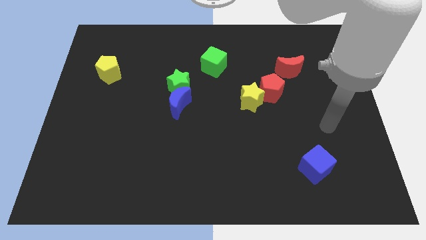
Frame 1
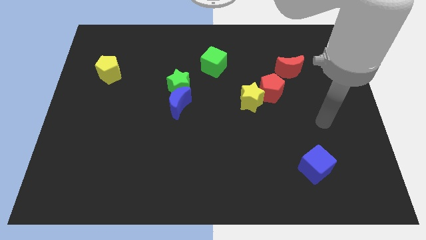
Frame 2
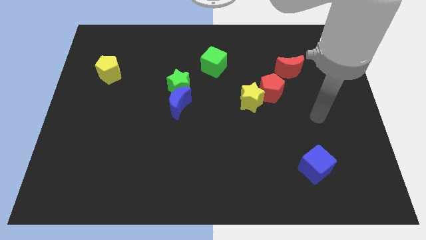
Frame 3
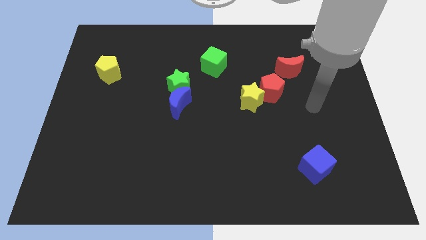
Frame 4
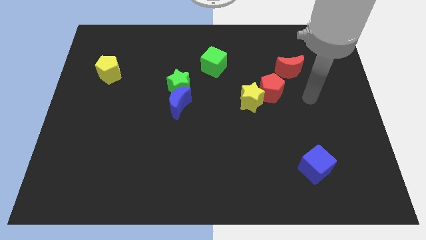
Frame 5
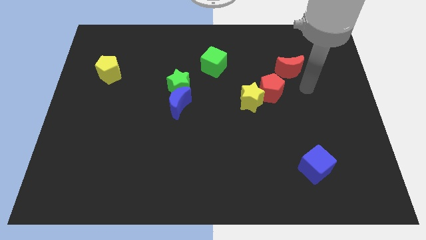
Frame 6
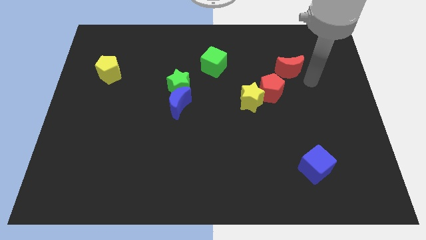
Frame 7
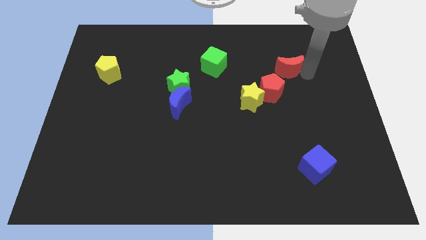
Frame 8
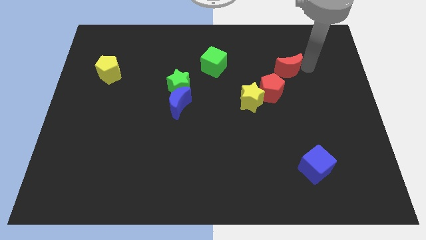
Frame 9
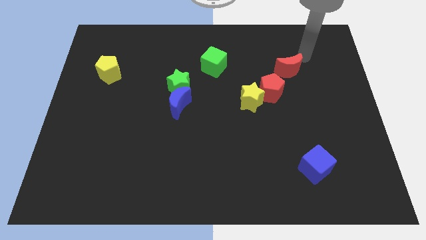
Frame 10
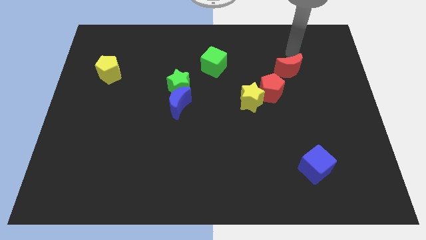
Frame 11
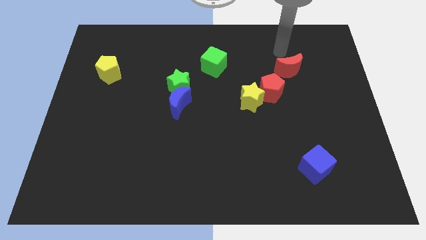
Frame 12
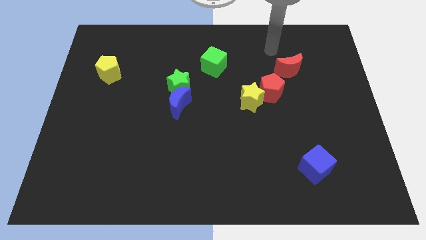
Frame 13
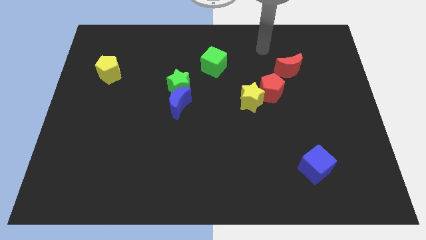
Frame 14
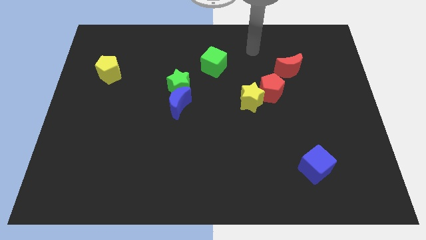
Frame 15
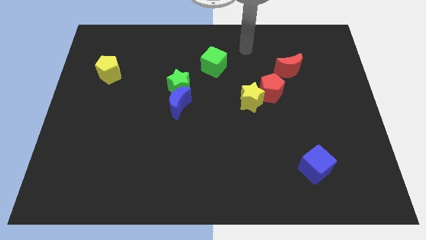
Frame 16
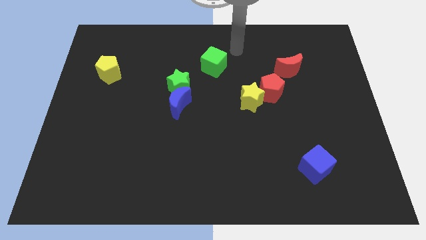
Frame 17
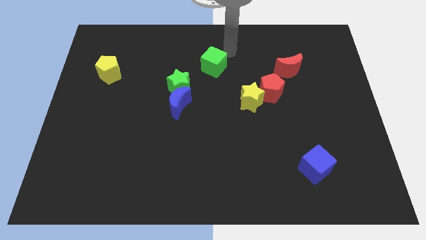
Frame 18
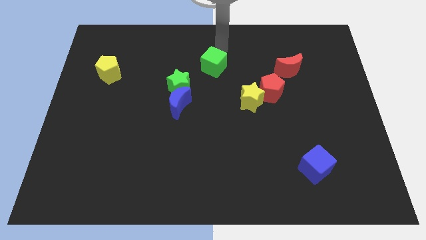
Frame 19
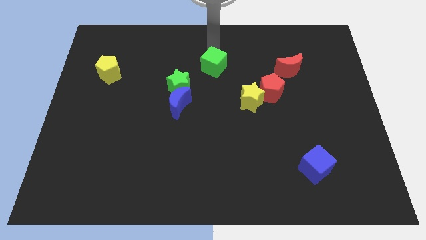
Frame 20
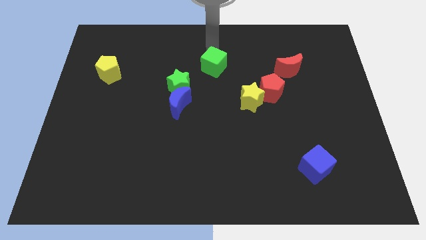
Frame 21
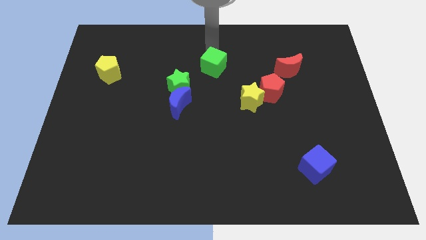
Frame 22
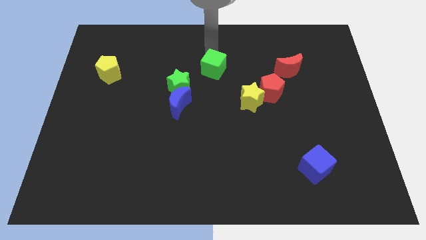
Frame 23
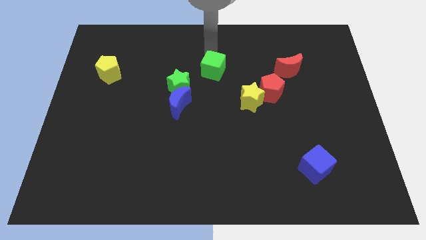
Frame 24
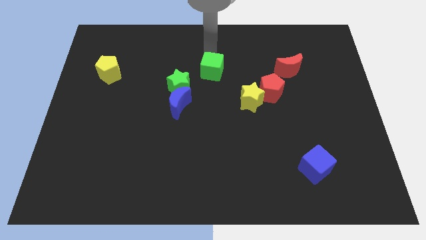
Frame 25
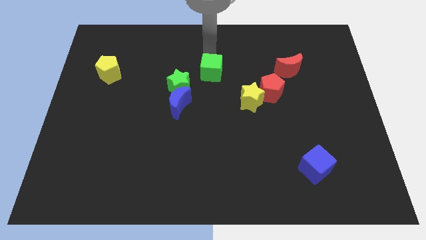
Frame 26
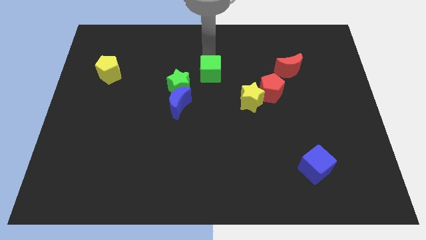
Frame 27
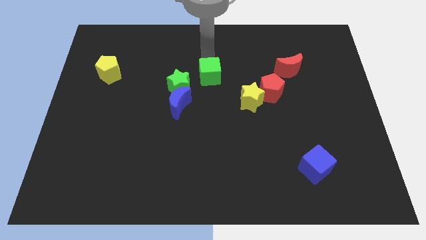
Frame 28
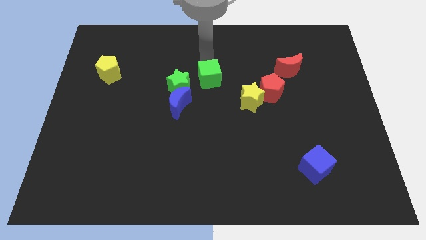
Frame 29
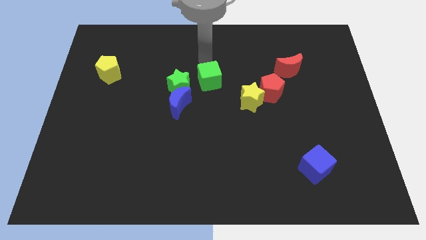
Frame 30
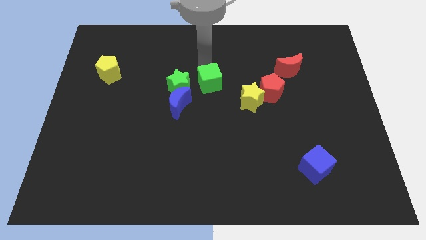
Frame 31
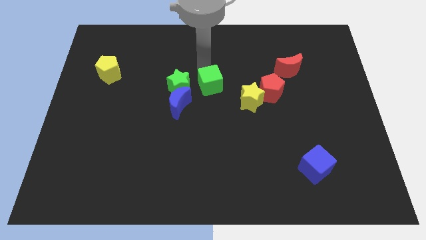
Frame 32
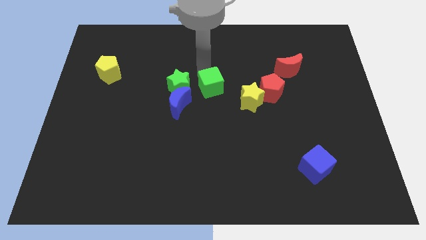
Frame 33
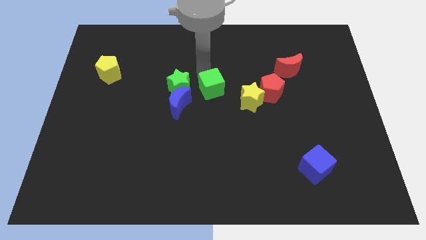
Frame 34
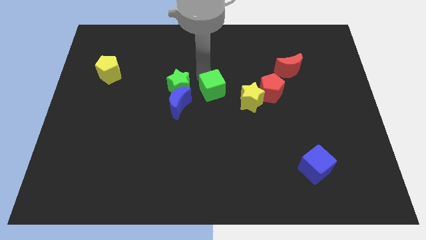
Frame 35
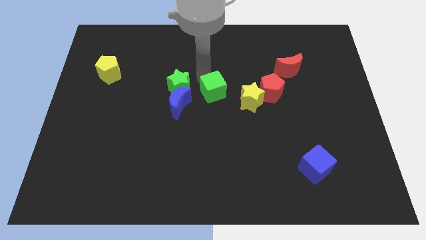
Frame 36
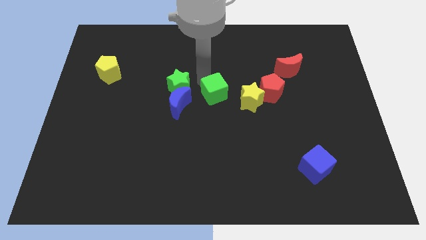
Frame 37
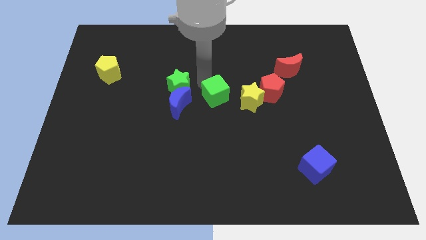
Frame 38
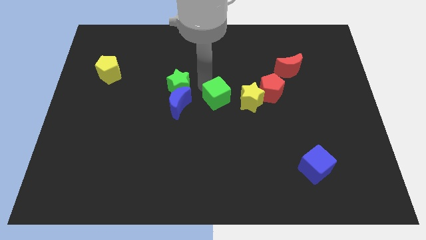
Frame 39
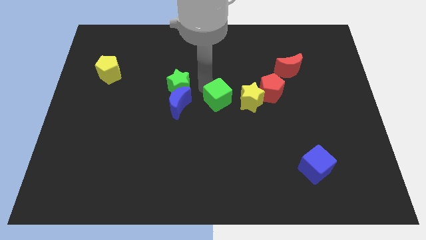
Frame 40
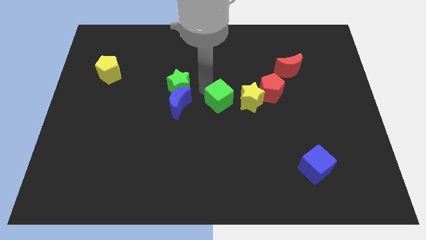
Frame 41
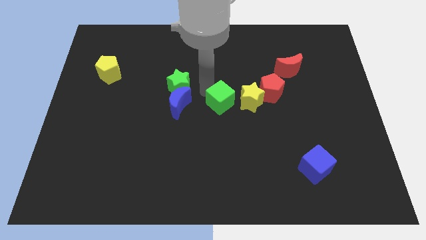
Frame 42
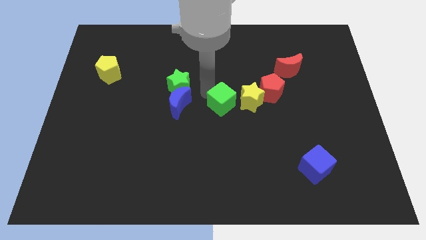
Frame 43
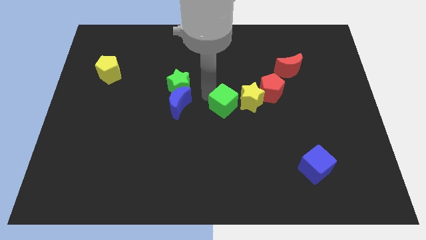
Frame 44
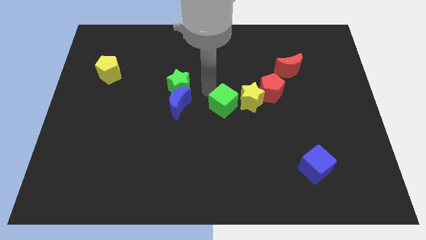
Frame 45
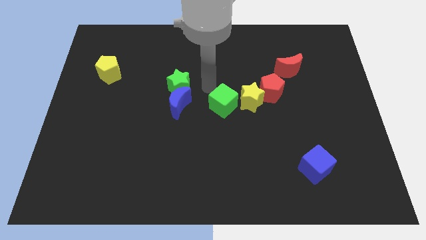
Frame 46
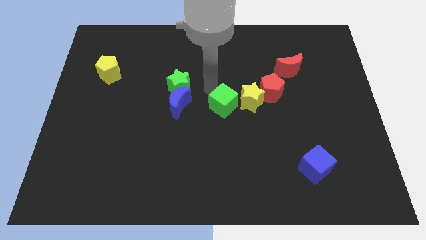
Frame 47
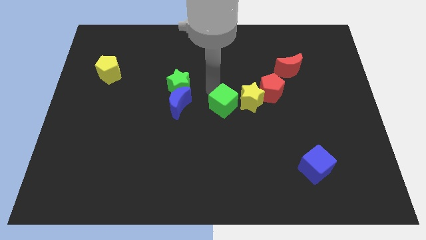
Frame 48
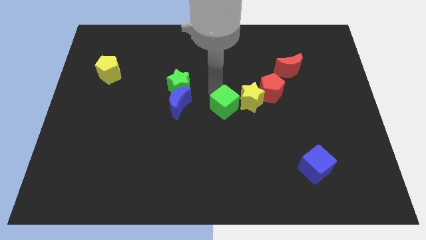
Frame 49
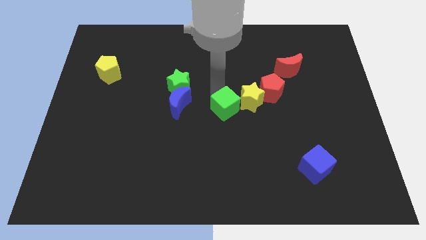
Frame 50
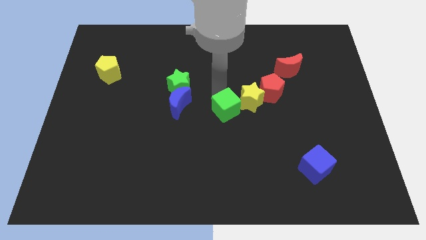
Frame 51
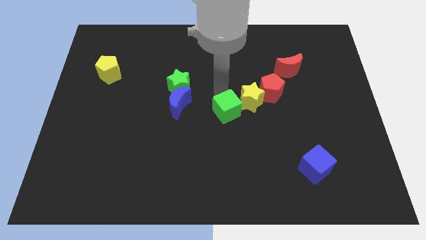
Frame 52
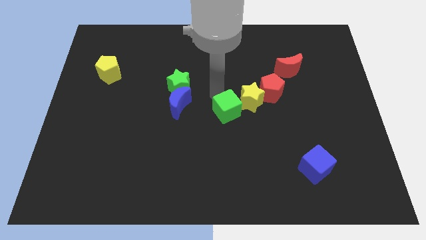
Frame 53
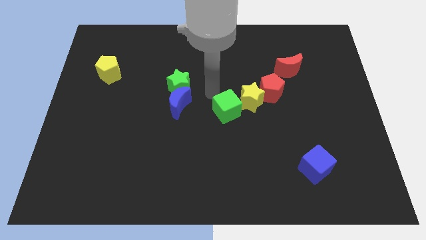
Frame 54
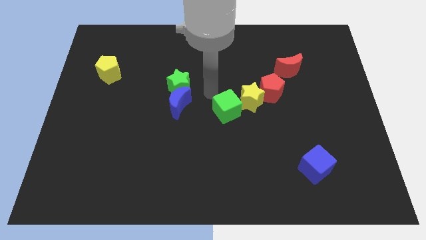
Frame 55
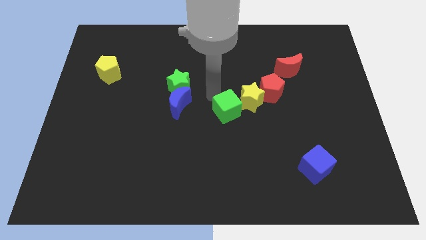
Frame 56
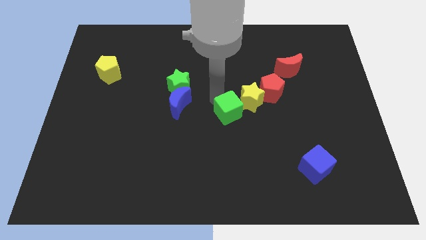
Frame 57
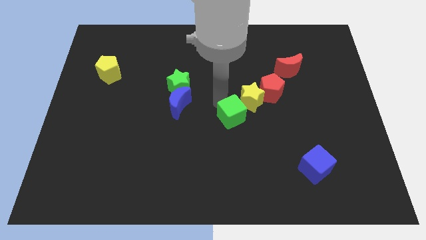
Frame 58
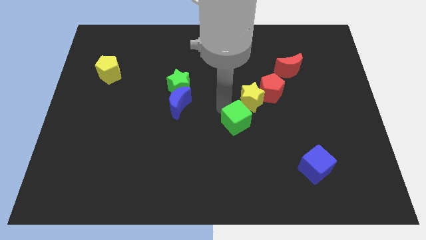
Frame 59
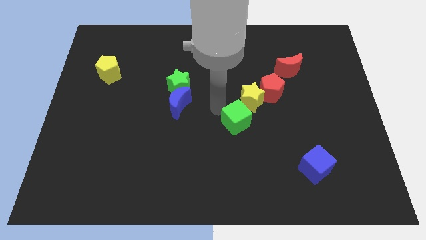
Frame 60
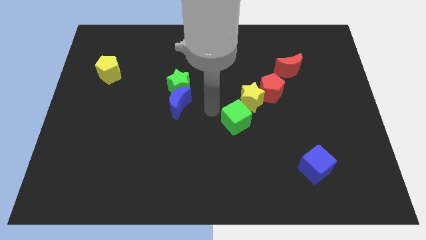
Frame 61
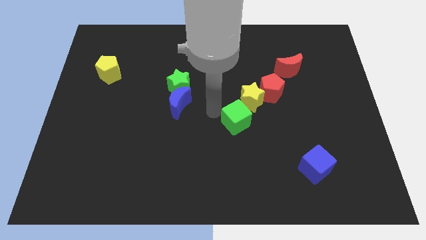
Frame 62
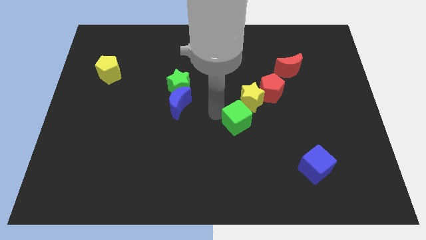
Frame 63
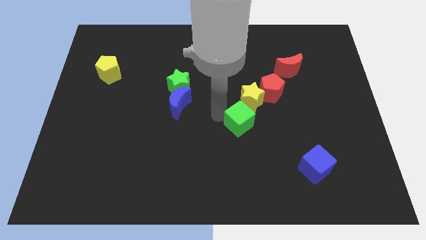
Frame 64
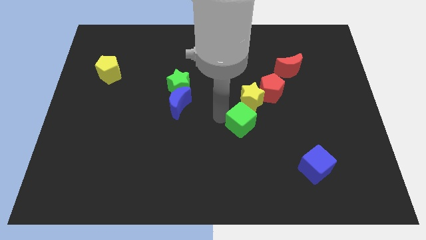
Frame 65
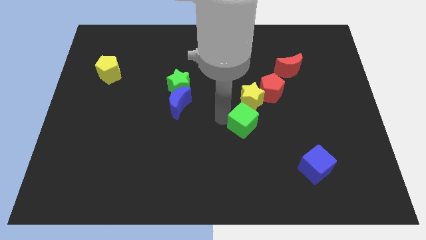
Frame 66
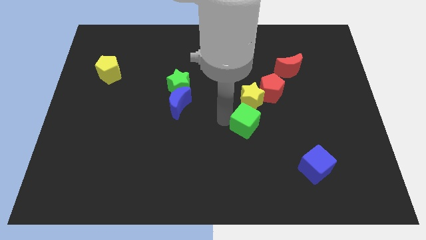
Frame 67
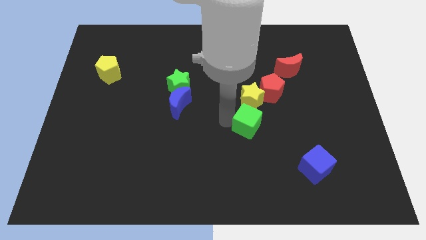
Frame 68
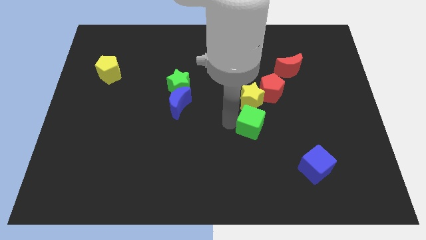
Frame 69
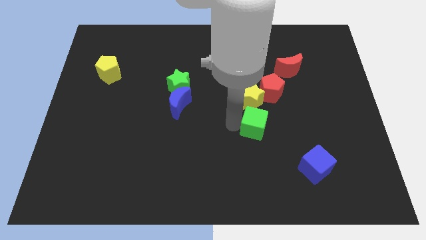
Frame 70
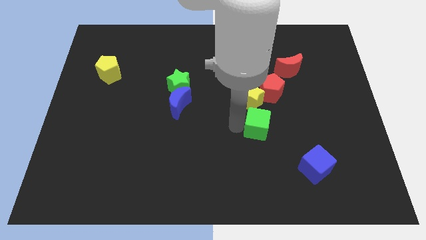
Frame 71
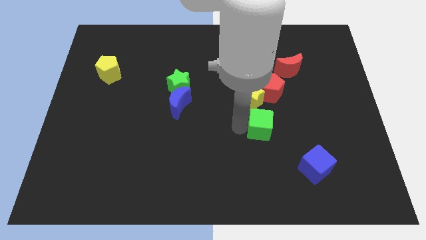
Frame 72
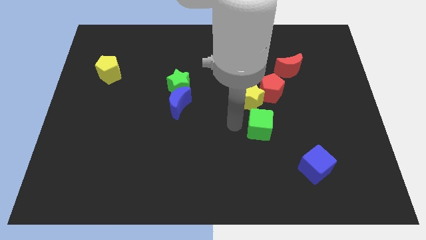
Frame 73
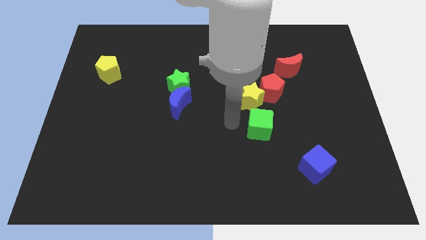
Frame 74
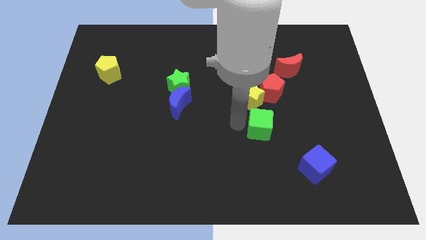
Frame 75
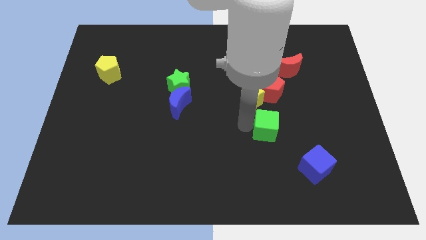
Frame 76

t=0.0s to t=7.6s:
push the green cube down and to the right diagonally

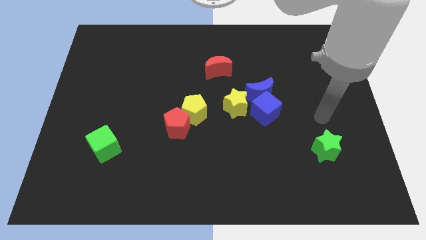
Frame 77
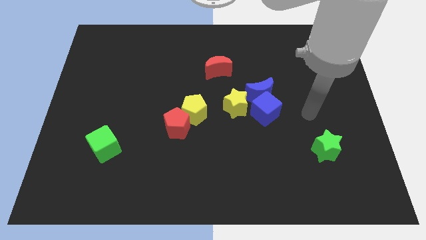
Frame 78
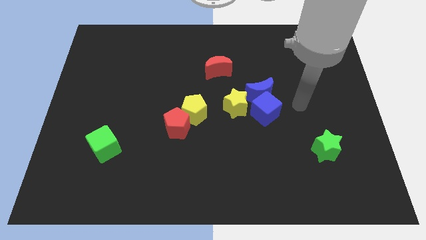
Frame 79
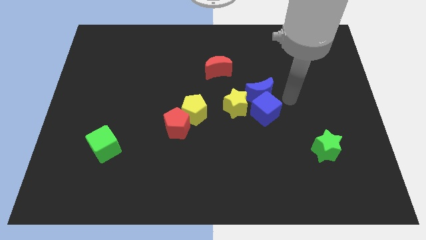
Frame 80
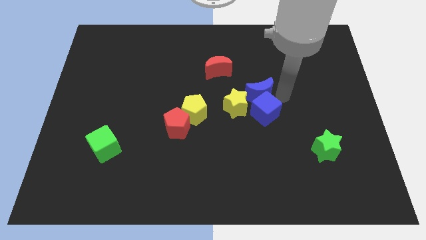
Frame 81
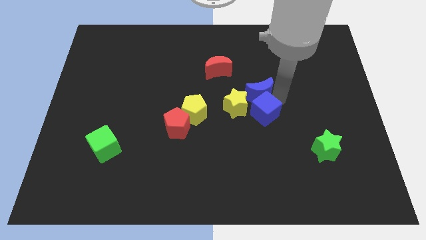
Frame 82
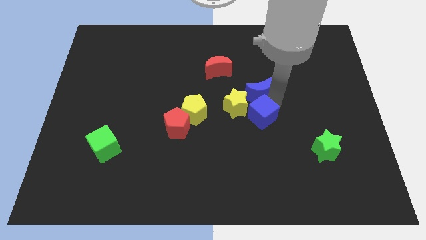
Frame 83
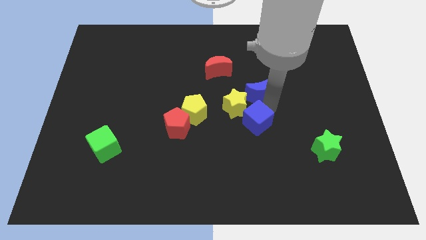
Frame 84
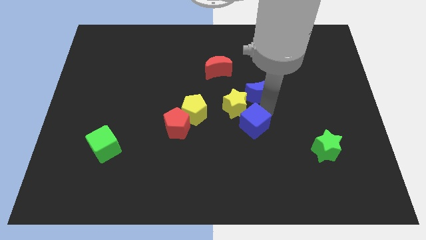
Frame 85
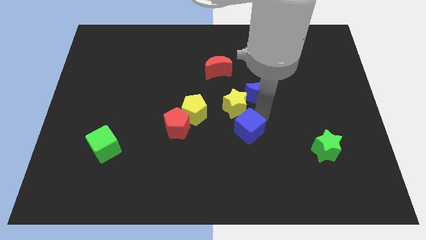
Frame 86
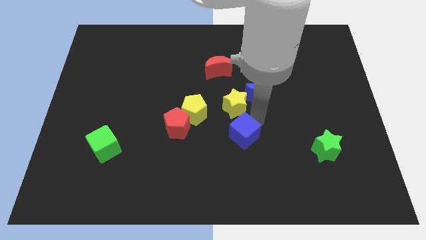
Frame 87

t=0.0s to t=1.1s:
push the blue cube down and then to the left a little bit
